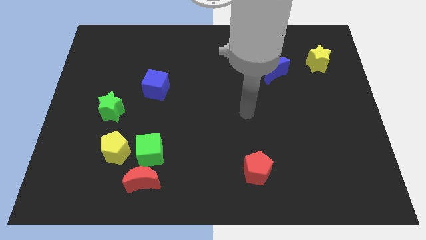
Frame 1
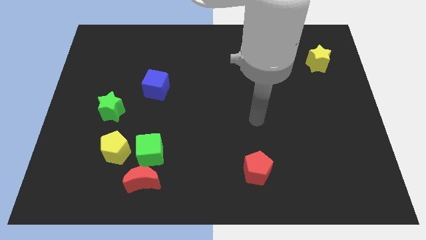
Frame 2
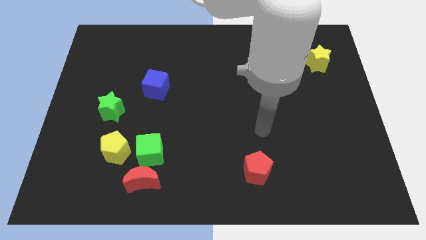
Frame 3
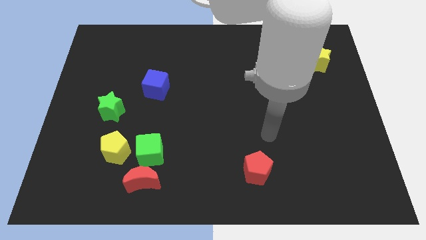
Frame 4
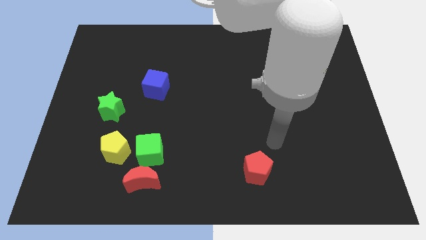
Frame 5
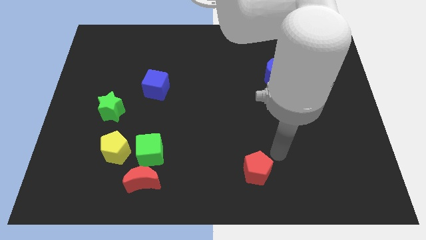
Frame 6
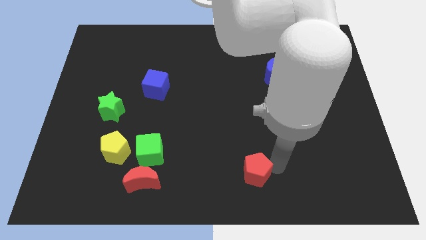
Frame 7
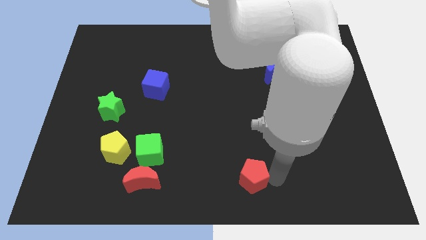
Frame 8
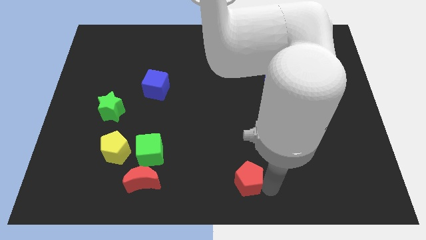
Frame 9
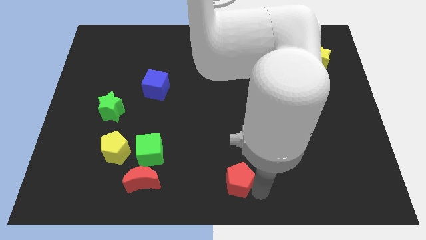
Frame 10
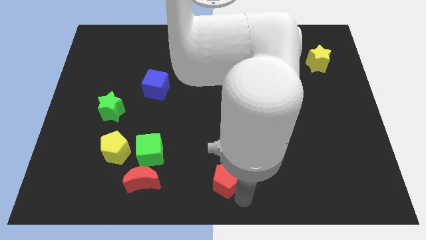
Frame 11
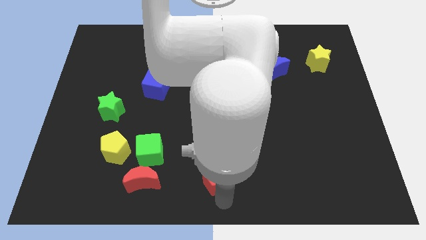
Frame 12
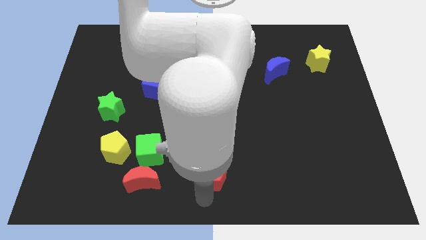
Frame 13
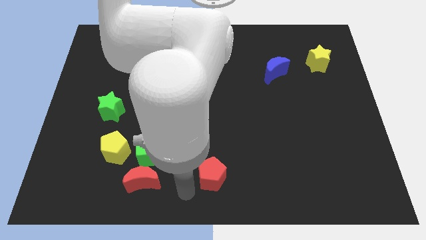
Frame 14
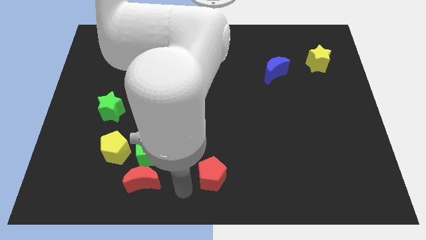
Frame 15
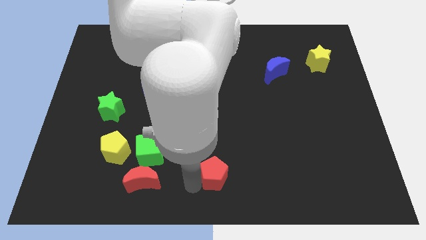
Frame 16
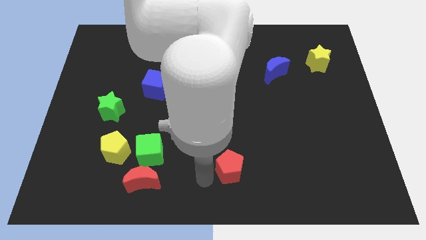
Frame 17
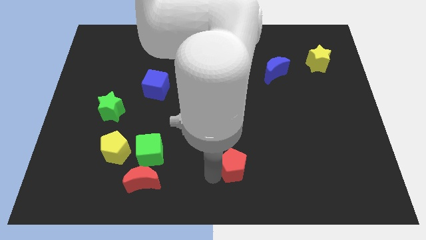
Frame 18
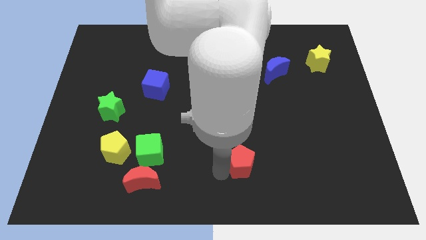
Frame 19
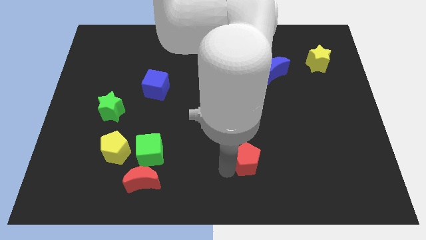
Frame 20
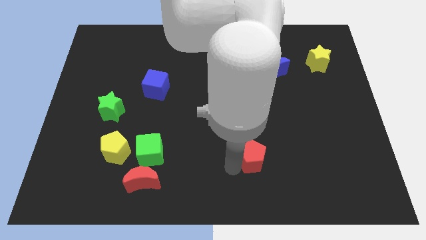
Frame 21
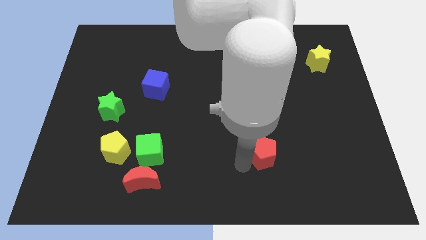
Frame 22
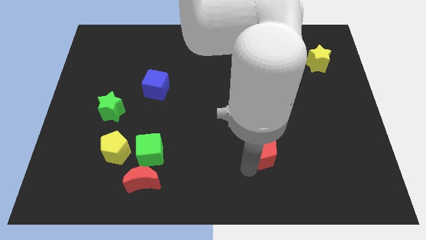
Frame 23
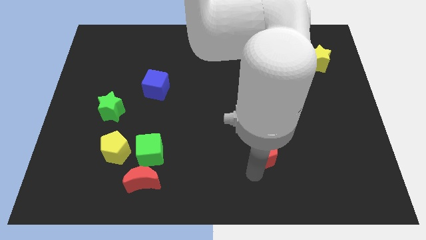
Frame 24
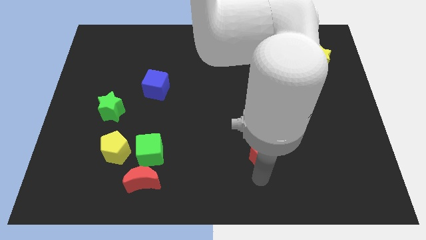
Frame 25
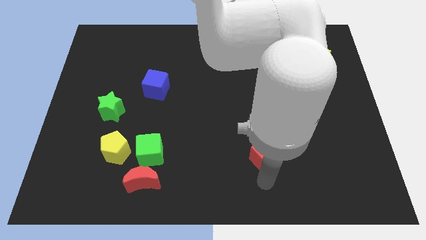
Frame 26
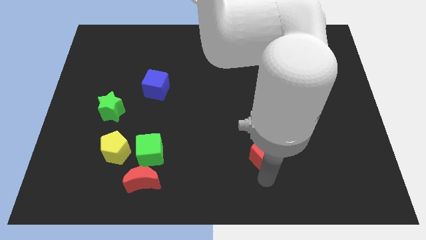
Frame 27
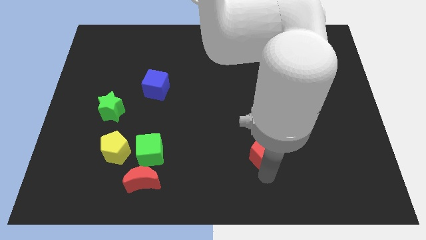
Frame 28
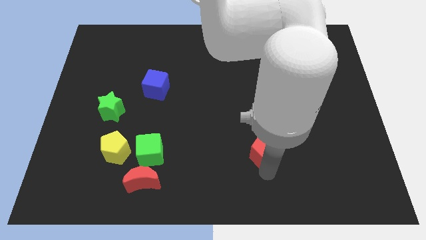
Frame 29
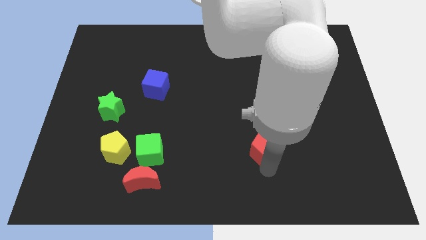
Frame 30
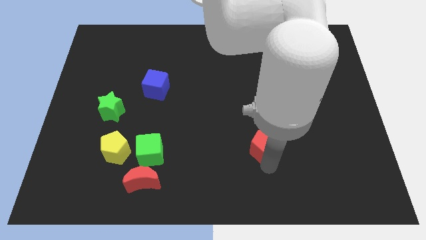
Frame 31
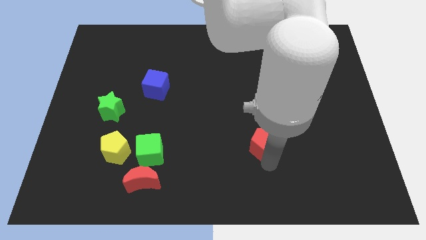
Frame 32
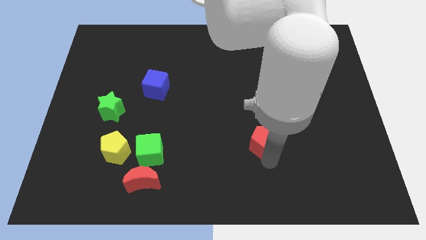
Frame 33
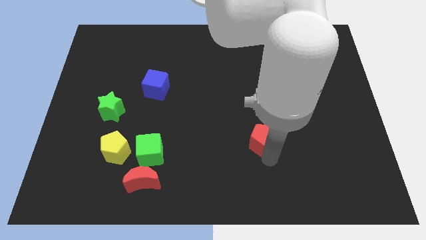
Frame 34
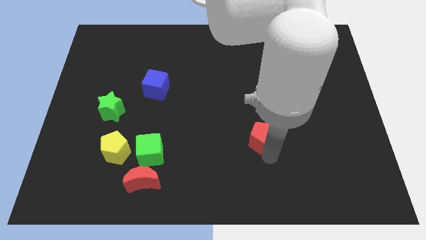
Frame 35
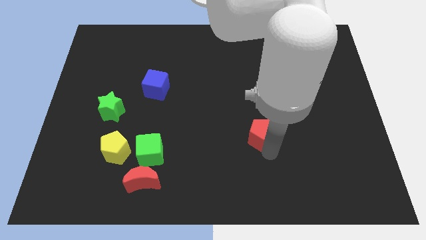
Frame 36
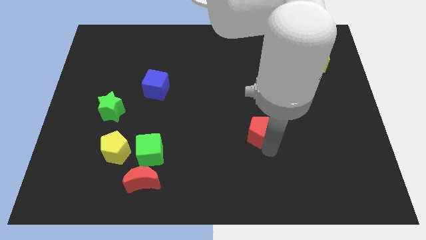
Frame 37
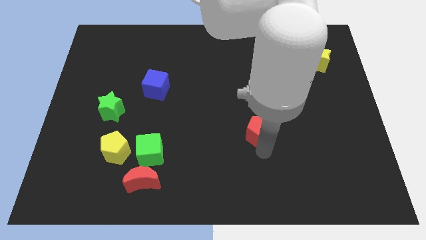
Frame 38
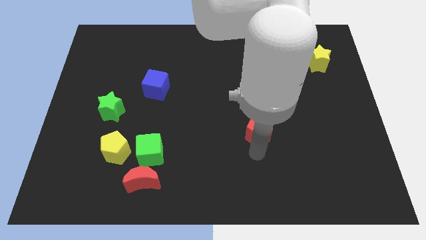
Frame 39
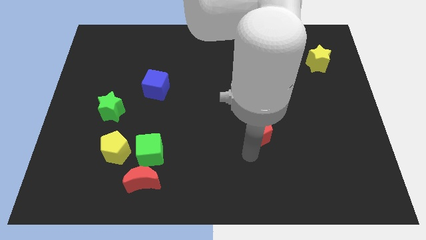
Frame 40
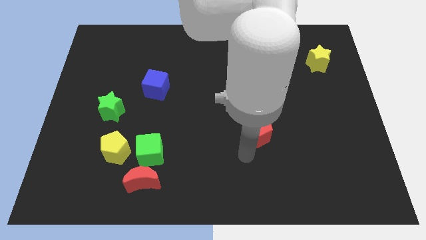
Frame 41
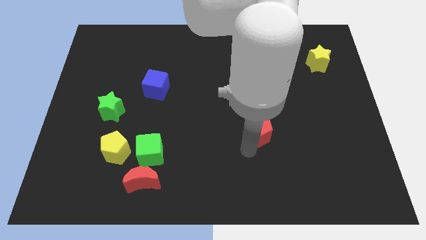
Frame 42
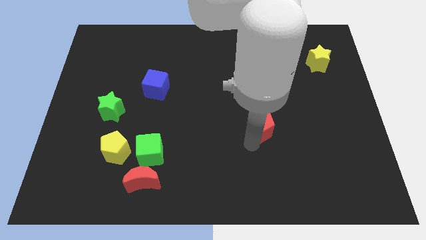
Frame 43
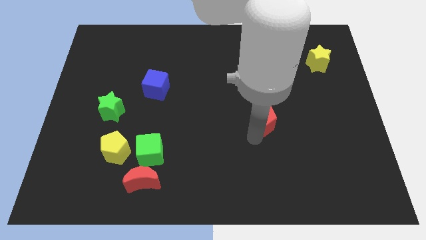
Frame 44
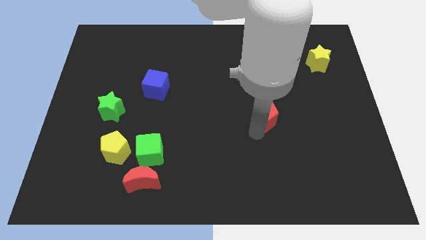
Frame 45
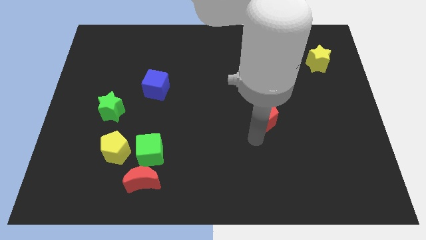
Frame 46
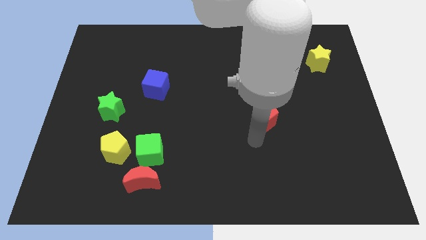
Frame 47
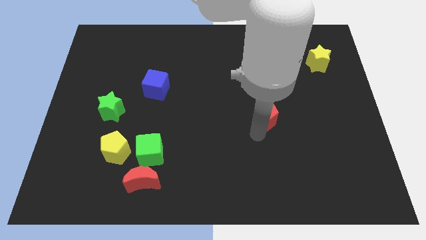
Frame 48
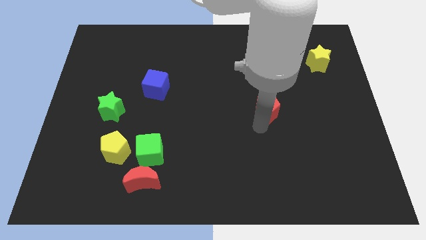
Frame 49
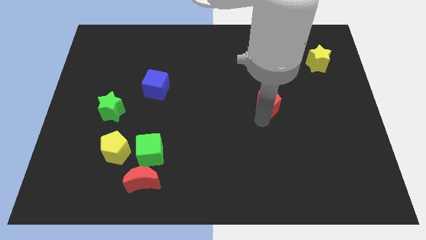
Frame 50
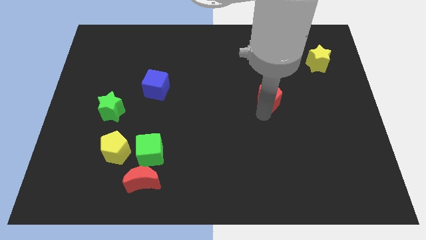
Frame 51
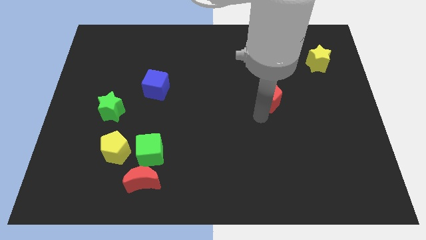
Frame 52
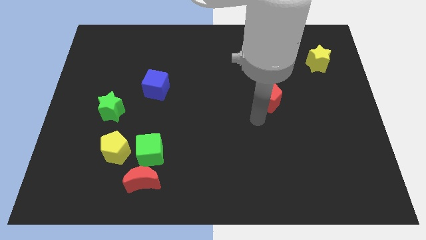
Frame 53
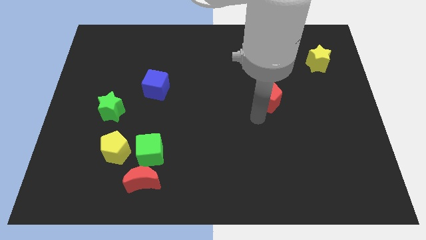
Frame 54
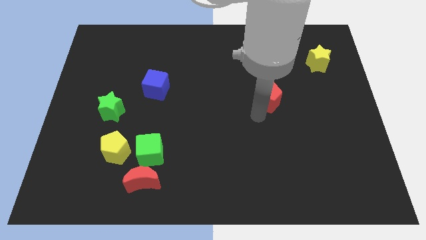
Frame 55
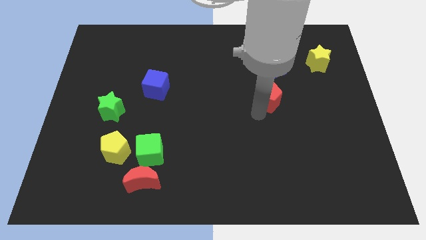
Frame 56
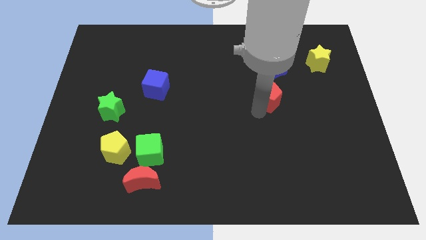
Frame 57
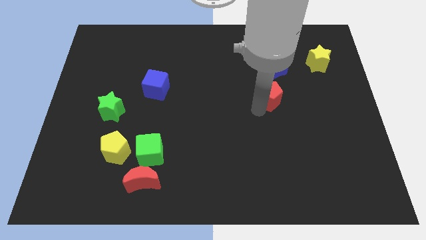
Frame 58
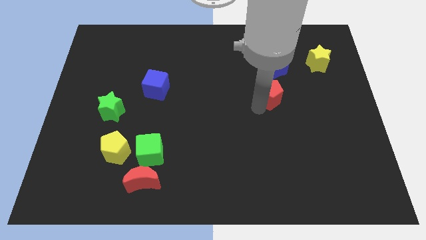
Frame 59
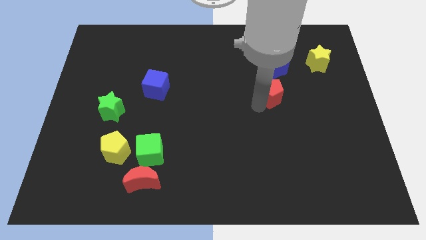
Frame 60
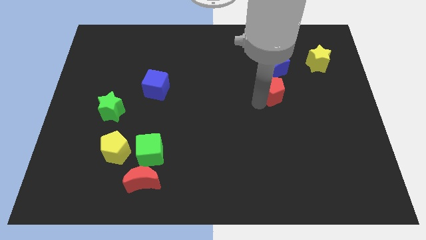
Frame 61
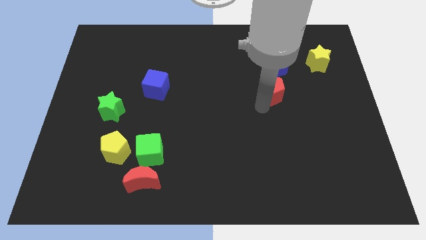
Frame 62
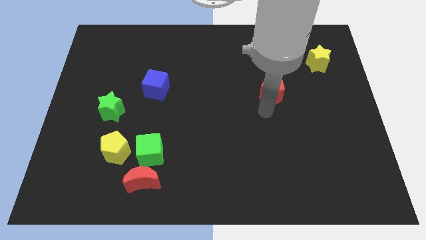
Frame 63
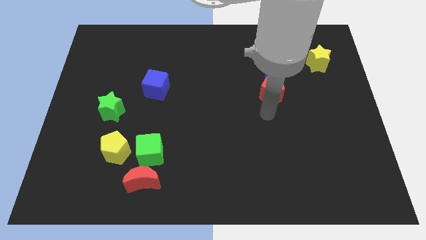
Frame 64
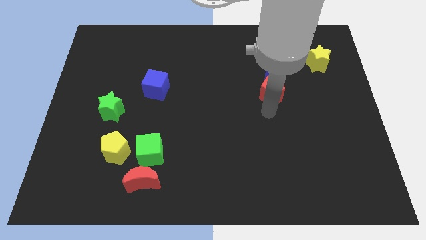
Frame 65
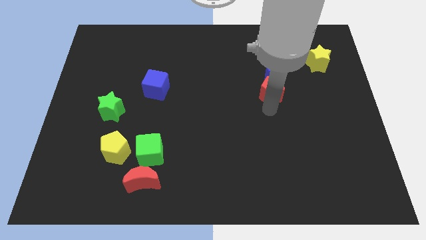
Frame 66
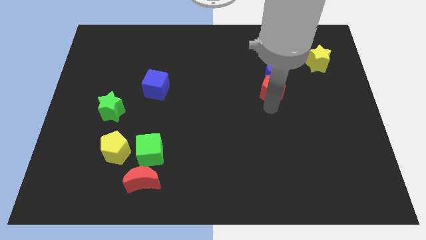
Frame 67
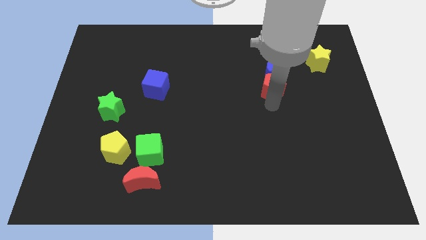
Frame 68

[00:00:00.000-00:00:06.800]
move the red pentagon close to the blue moon

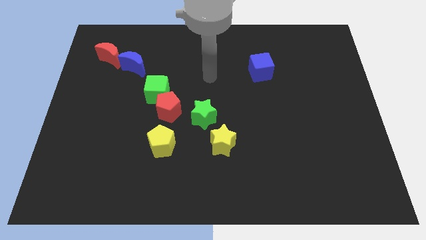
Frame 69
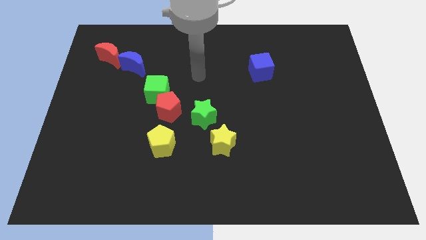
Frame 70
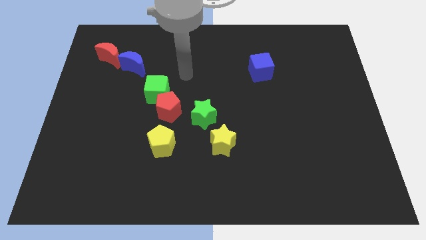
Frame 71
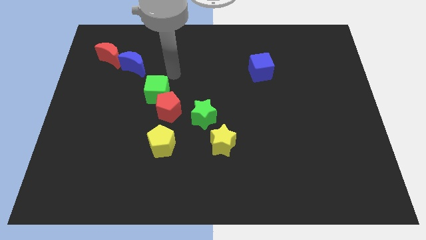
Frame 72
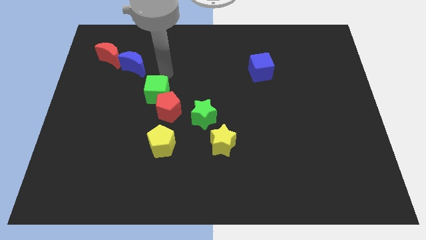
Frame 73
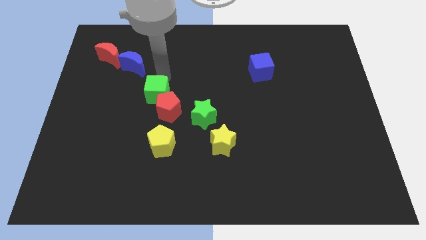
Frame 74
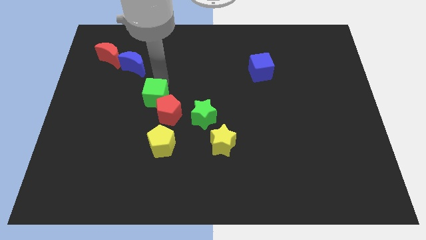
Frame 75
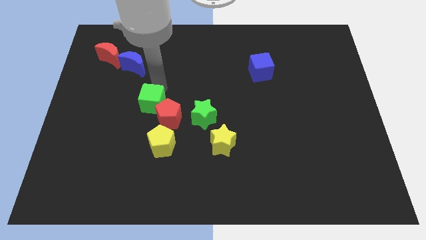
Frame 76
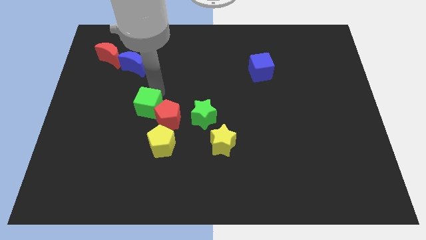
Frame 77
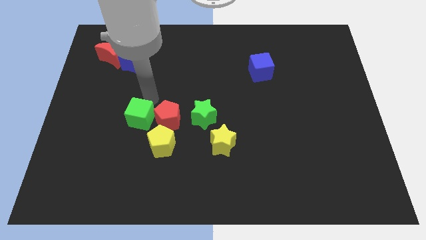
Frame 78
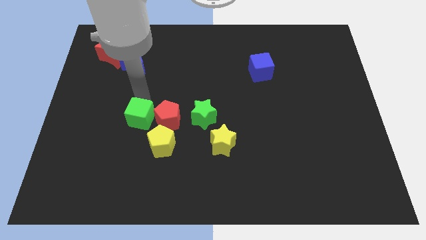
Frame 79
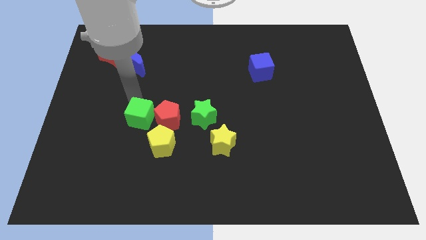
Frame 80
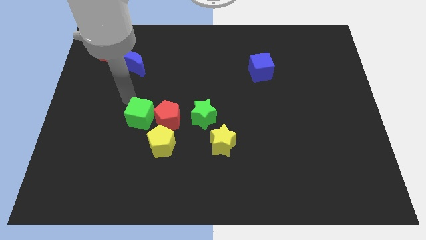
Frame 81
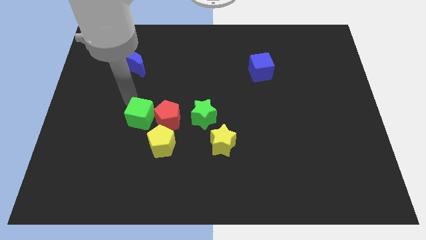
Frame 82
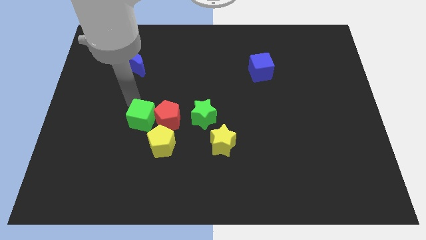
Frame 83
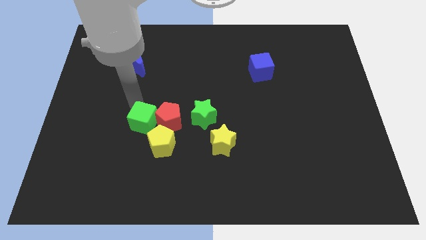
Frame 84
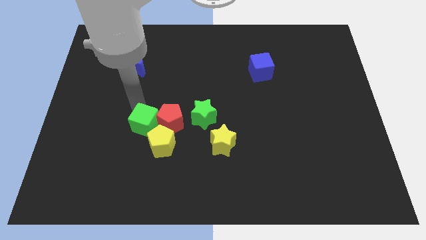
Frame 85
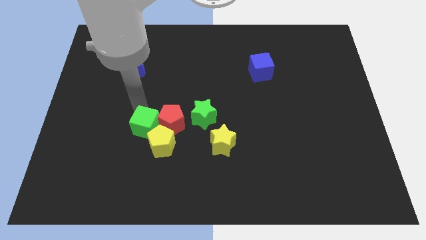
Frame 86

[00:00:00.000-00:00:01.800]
put the green cube towards the yellow pentagon
